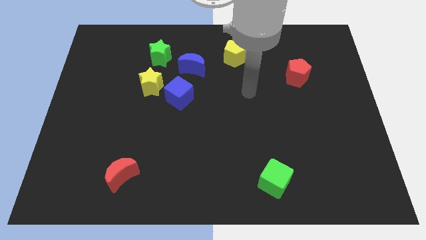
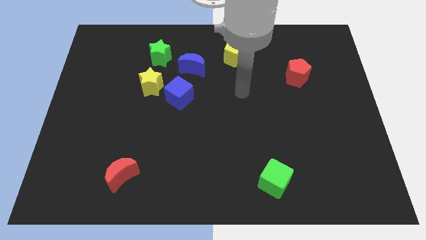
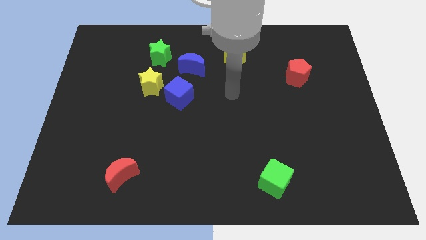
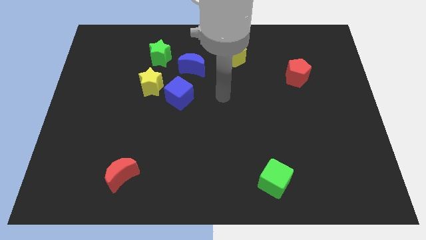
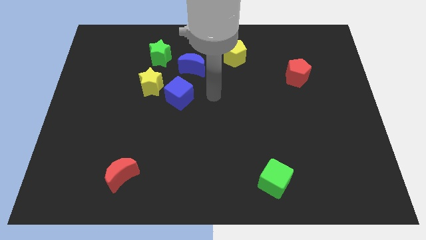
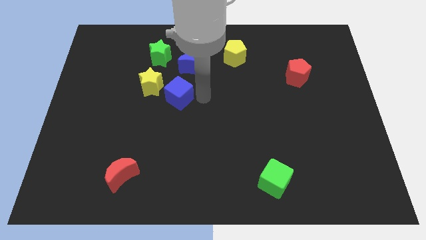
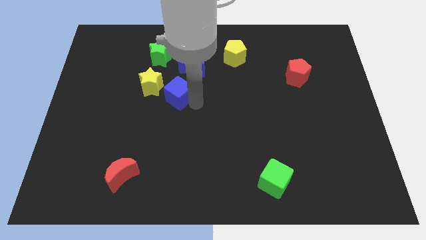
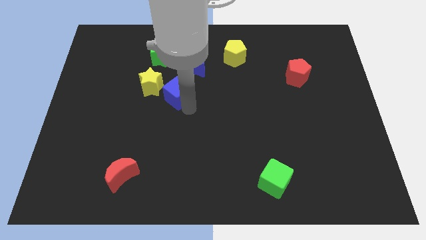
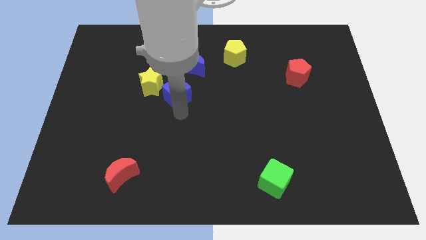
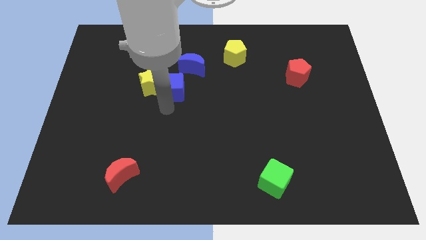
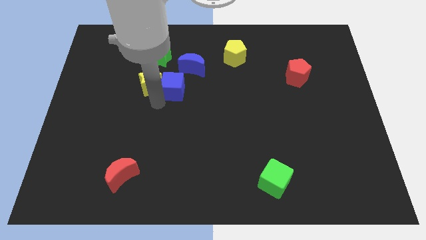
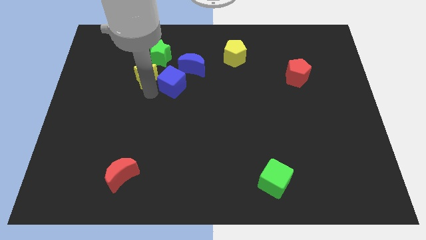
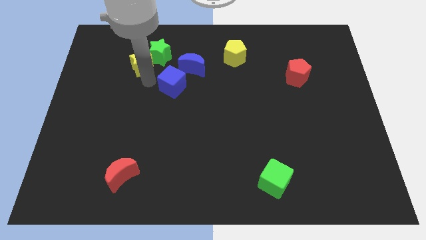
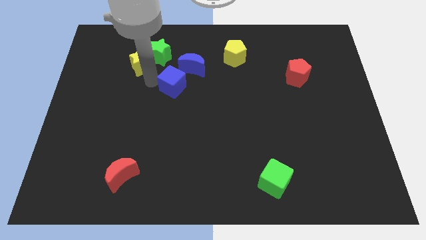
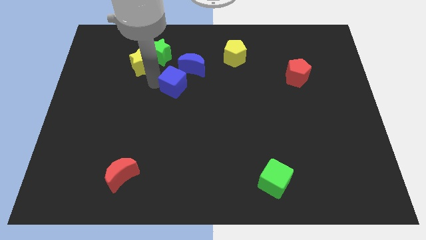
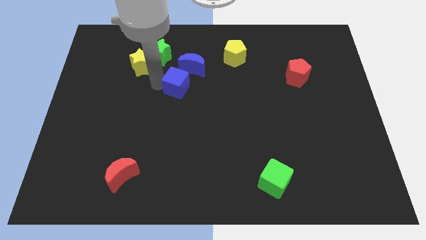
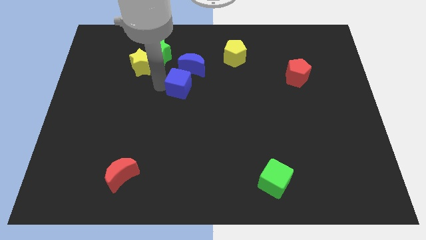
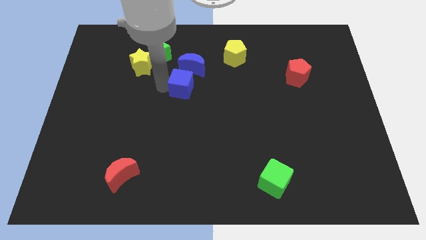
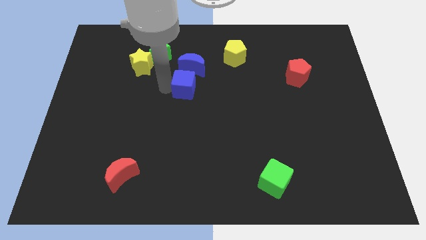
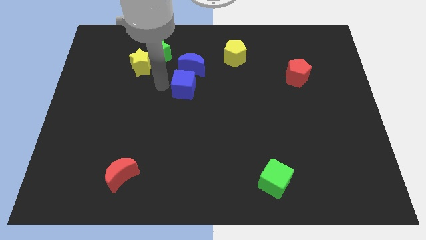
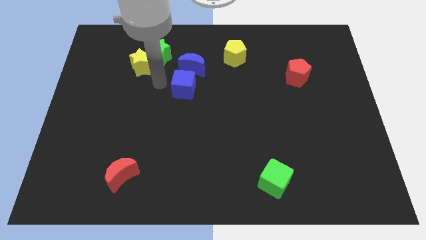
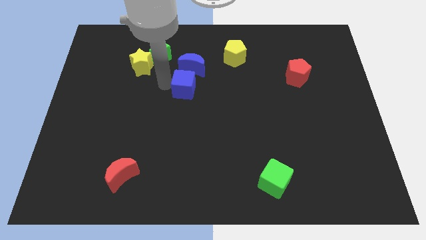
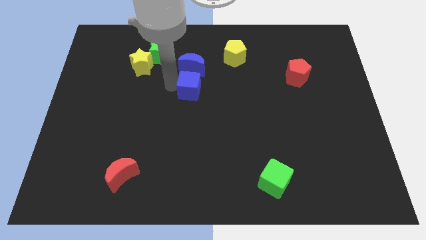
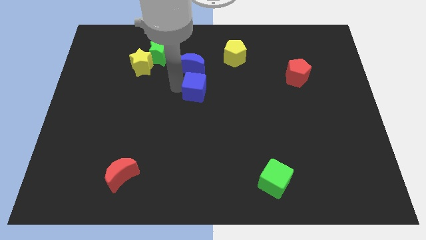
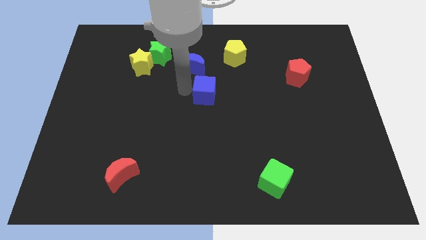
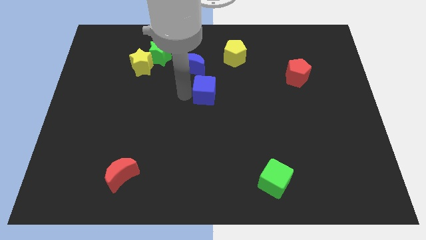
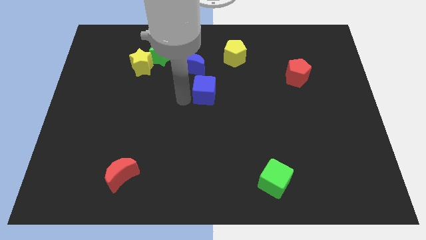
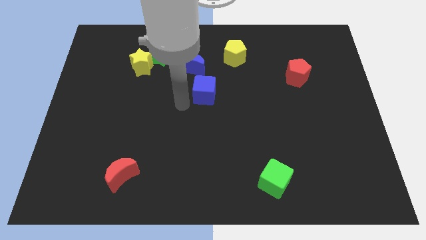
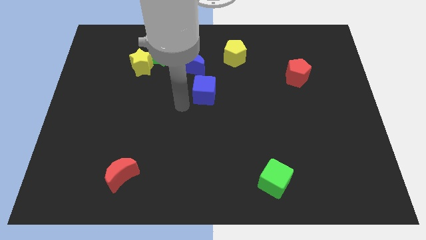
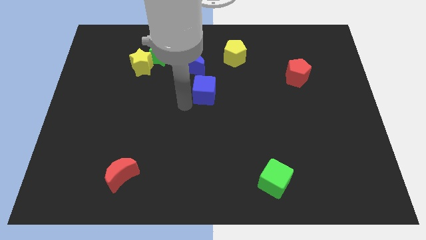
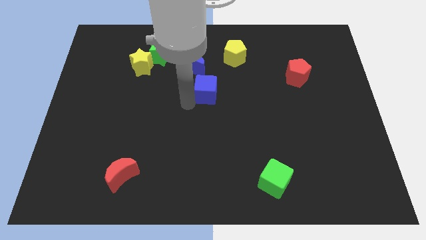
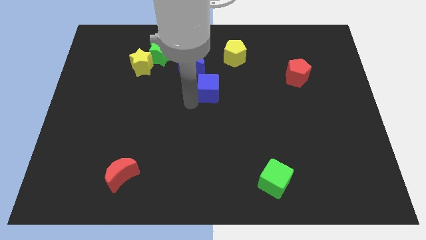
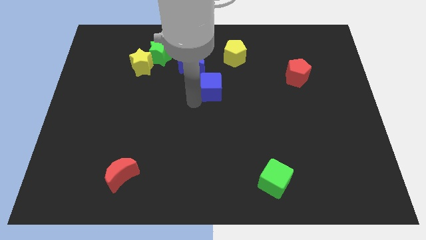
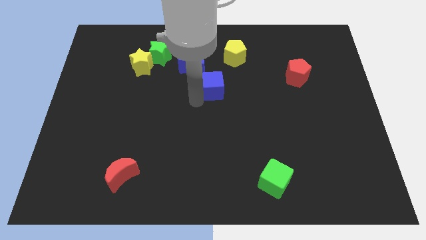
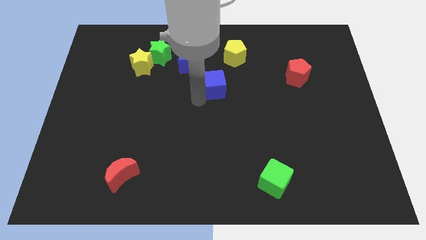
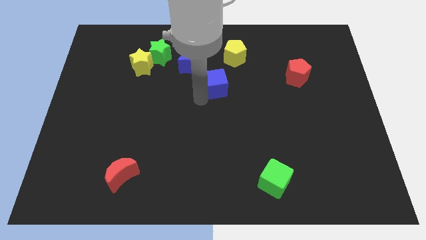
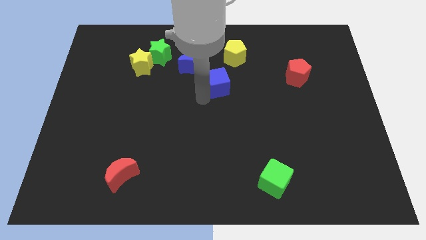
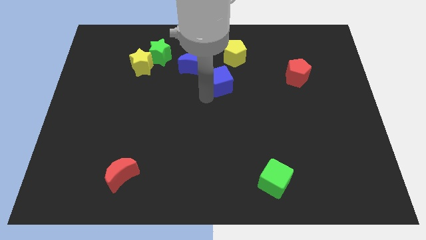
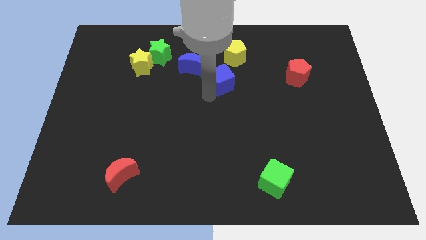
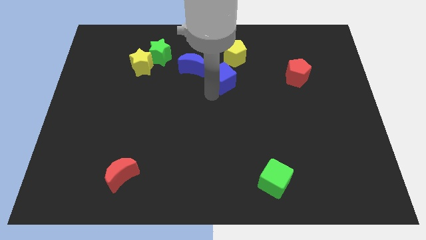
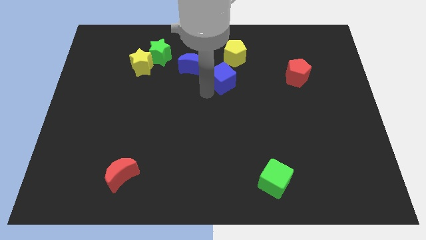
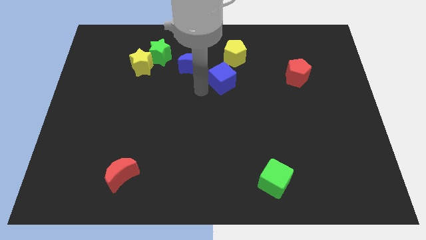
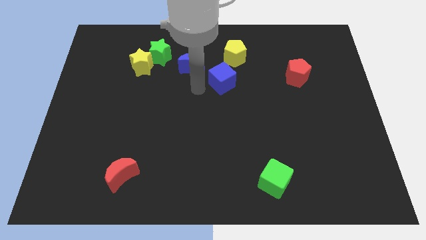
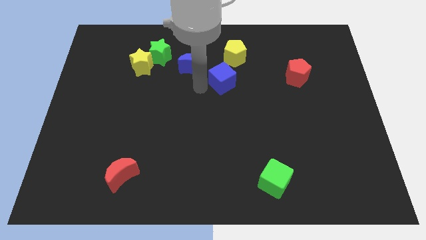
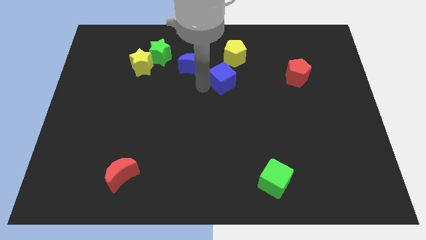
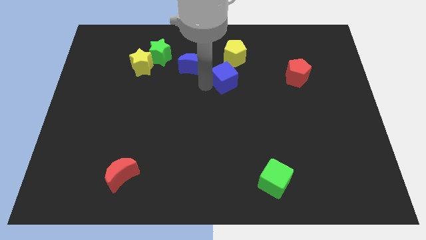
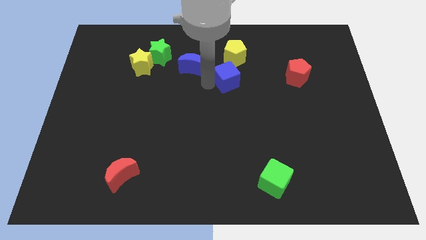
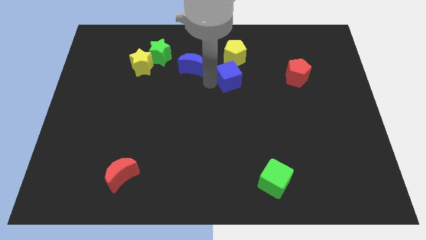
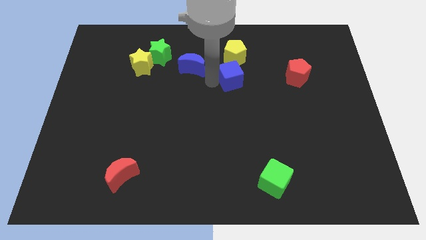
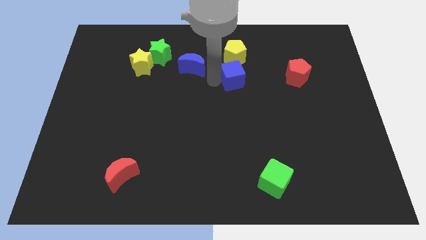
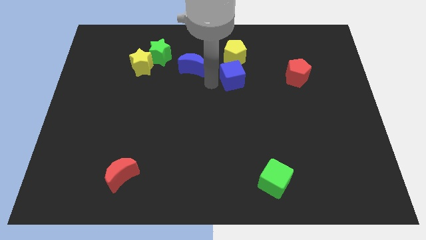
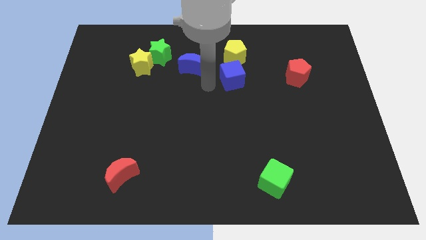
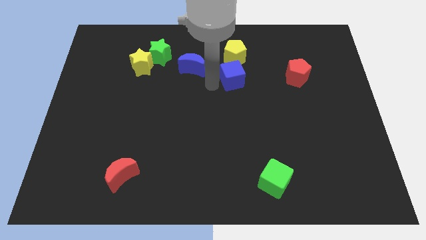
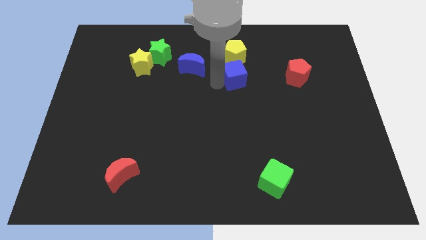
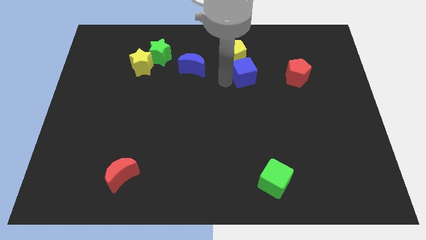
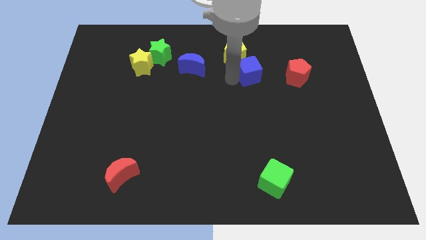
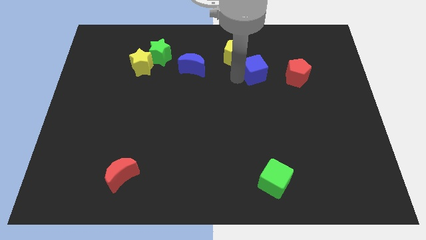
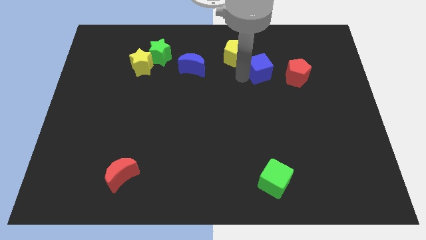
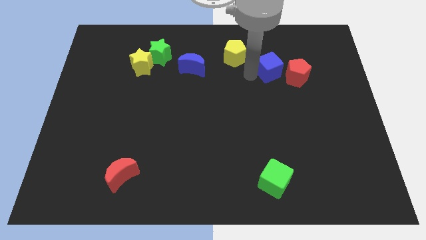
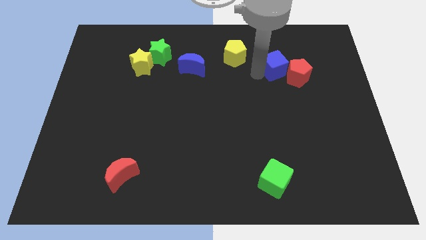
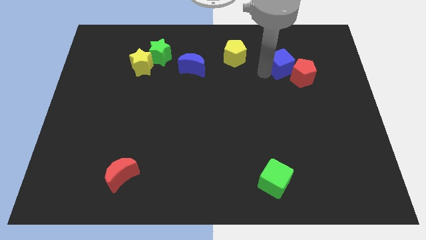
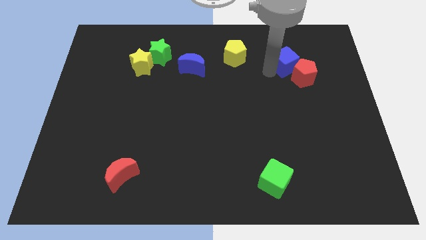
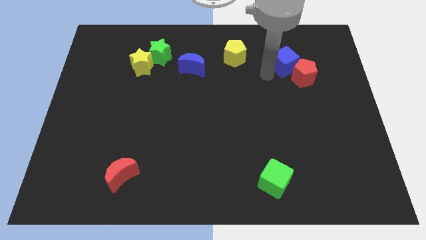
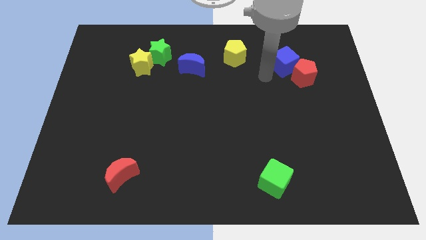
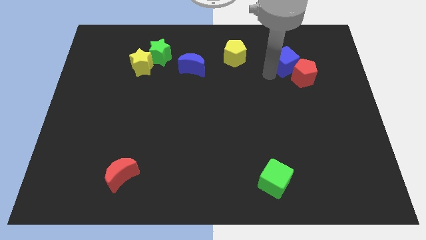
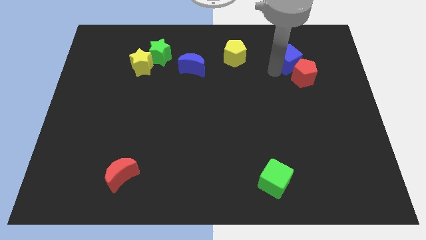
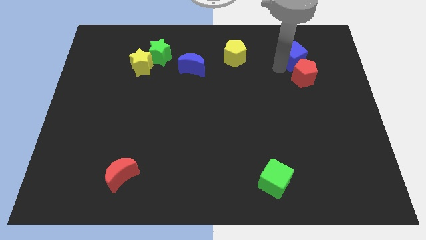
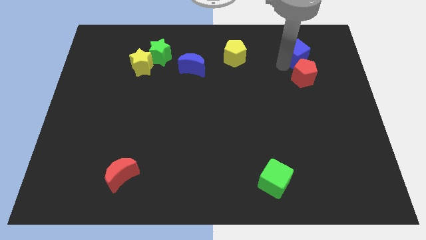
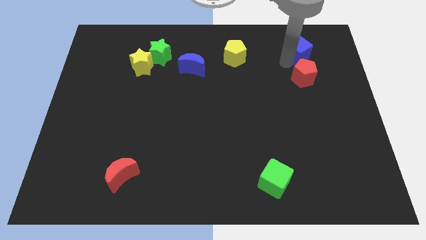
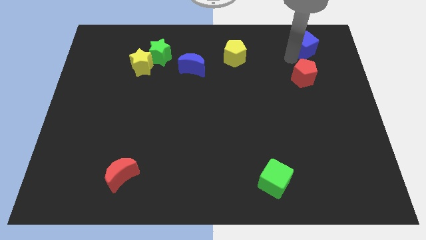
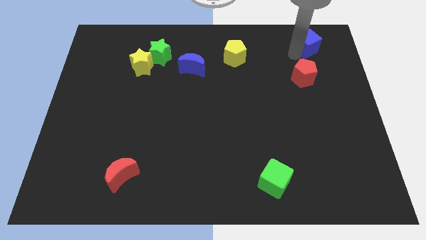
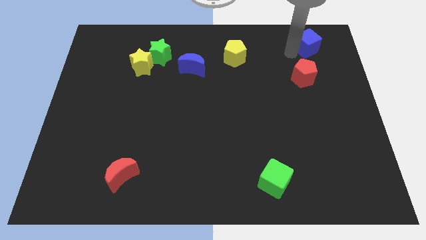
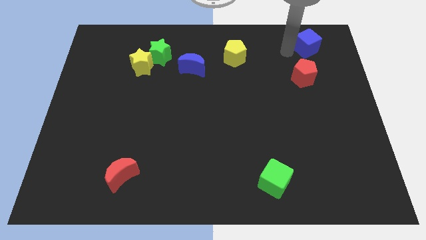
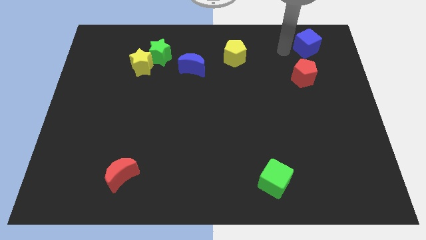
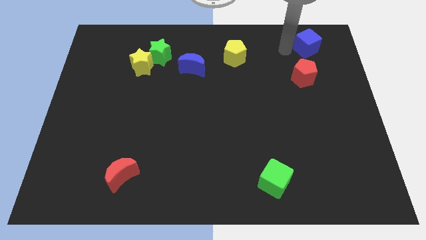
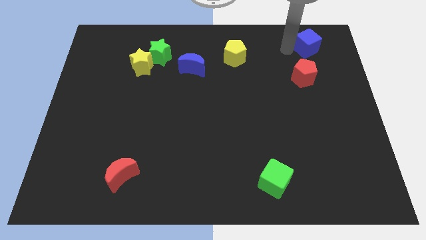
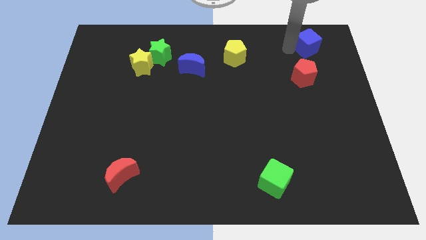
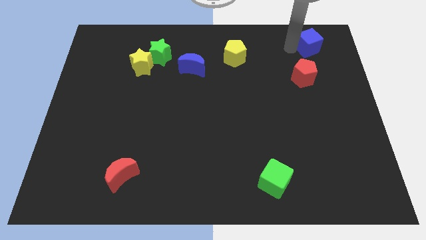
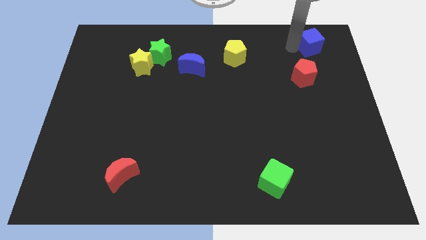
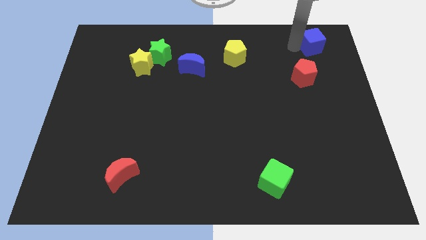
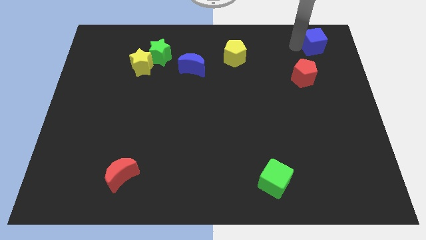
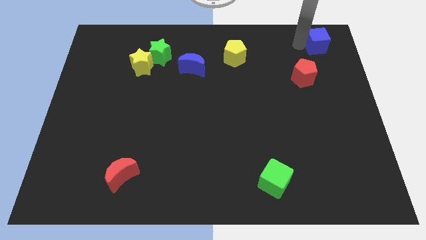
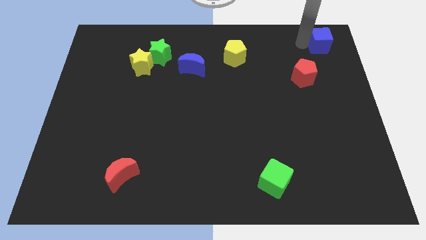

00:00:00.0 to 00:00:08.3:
slide the blue cube to the top right of the board
